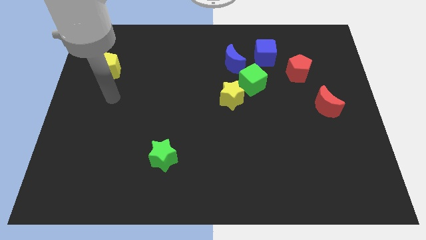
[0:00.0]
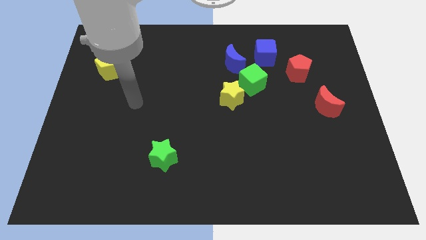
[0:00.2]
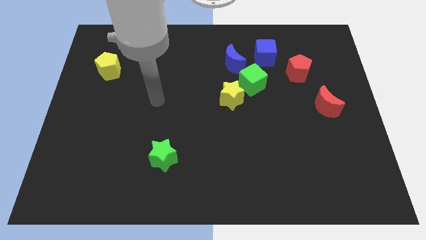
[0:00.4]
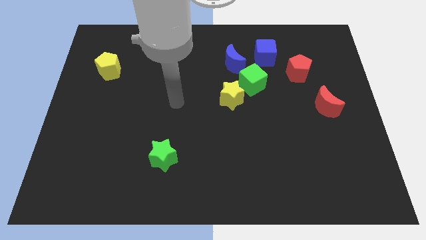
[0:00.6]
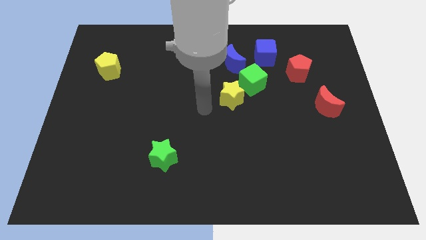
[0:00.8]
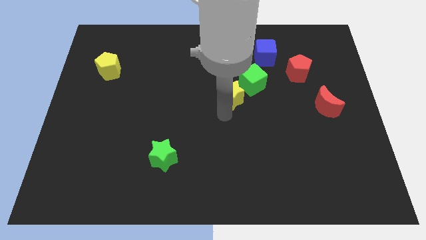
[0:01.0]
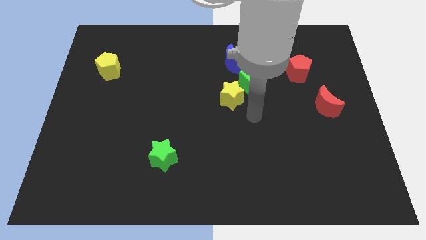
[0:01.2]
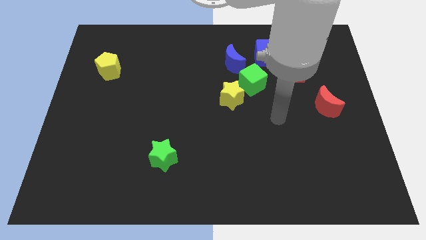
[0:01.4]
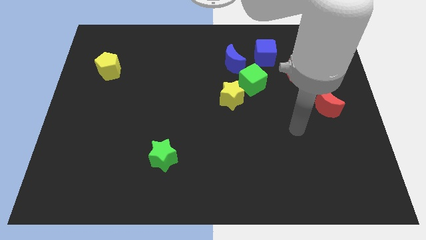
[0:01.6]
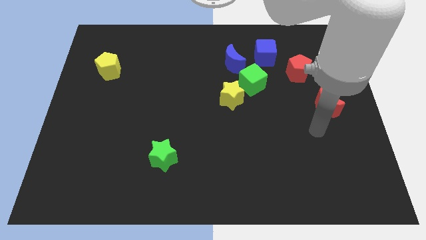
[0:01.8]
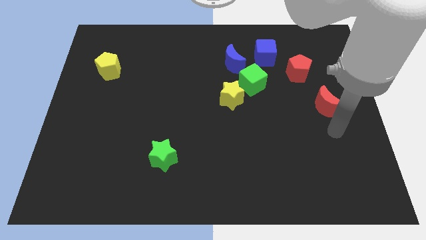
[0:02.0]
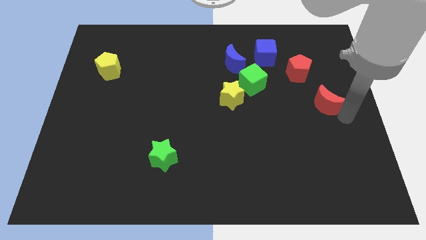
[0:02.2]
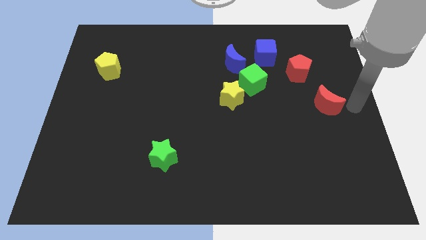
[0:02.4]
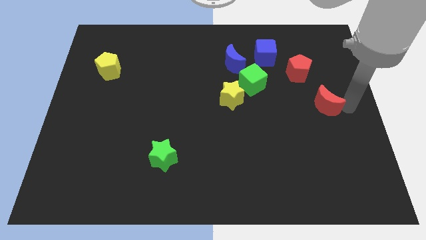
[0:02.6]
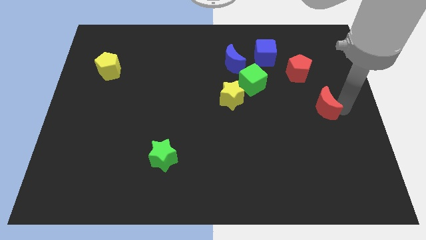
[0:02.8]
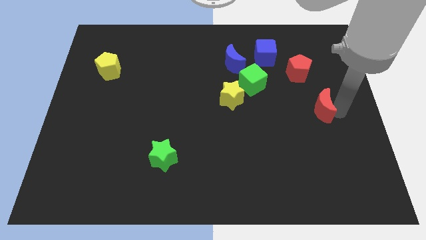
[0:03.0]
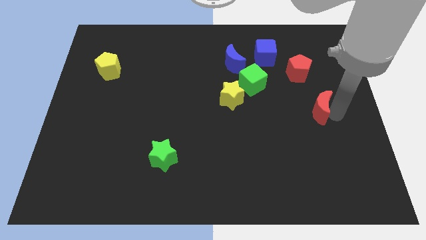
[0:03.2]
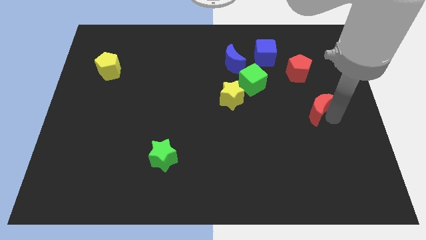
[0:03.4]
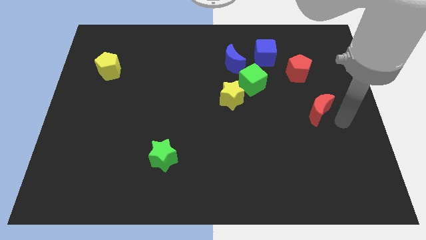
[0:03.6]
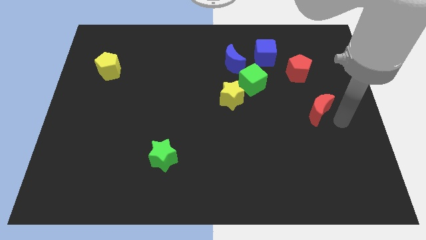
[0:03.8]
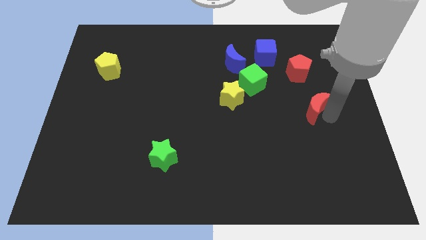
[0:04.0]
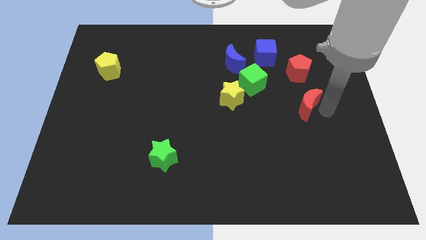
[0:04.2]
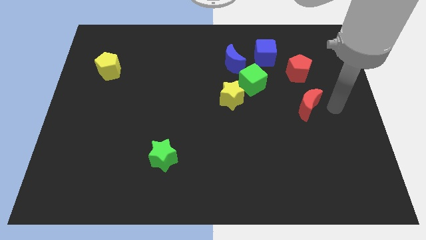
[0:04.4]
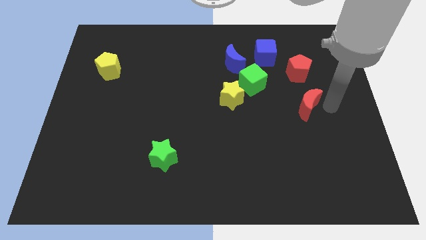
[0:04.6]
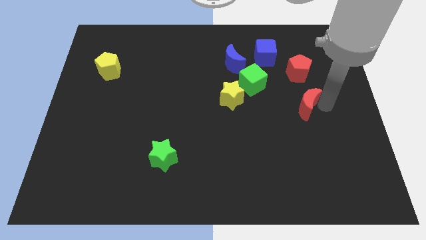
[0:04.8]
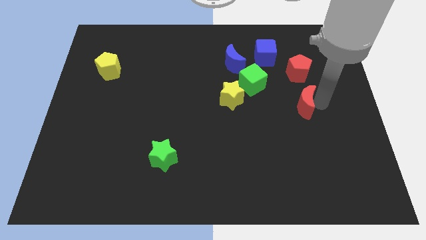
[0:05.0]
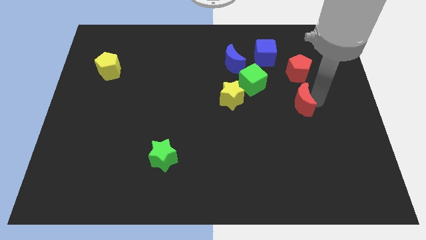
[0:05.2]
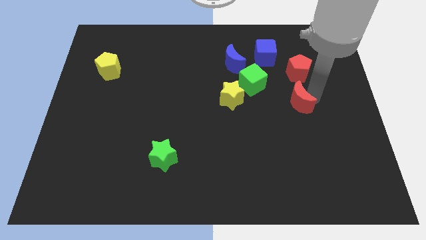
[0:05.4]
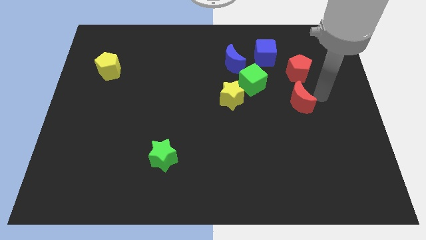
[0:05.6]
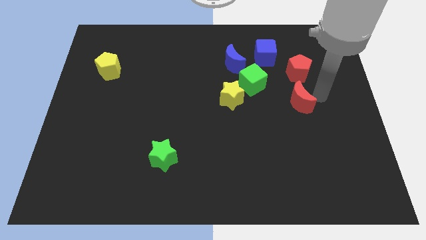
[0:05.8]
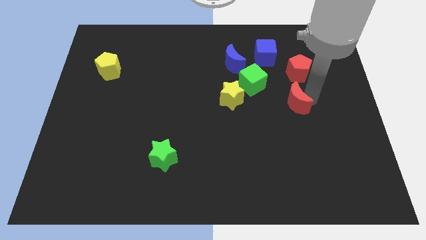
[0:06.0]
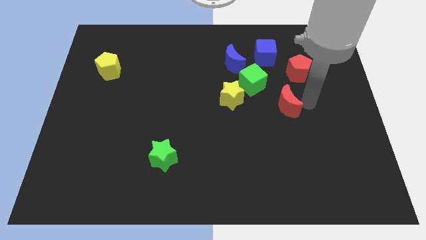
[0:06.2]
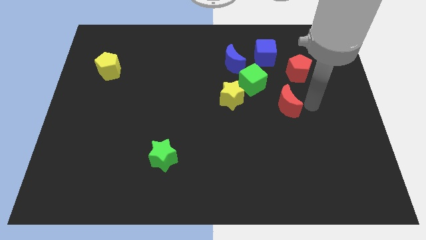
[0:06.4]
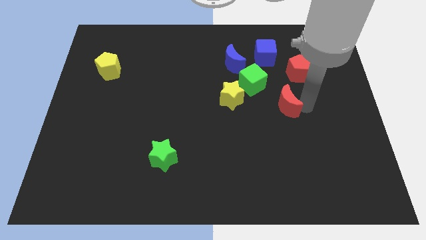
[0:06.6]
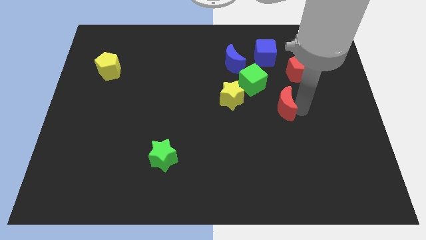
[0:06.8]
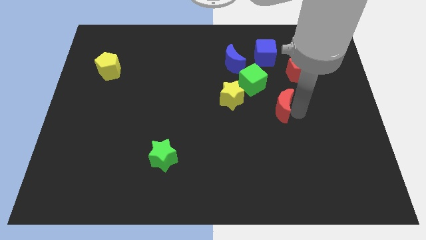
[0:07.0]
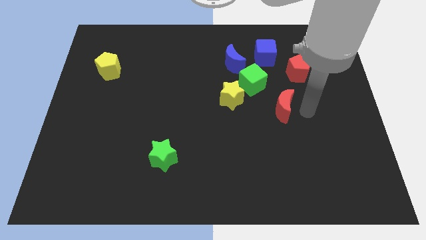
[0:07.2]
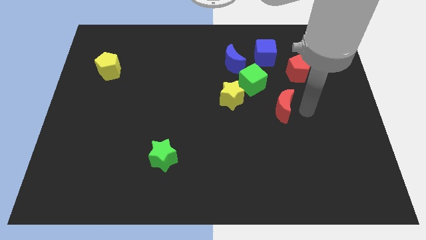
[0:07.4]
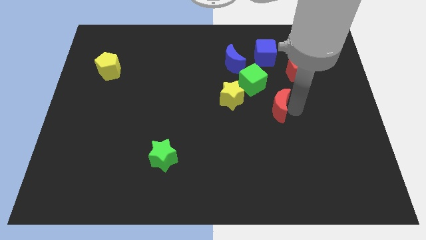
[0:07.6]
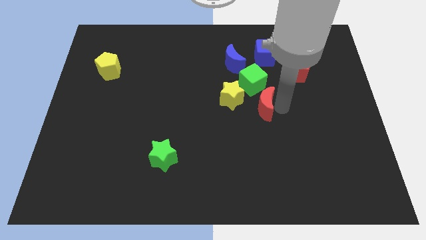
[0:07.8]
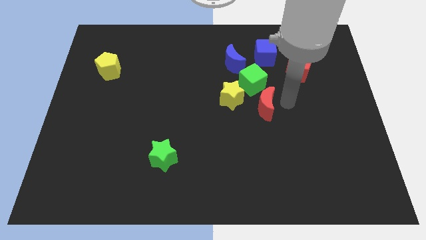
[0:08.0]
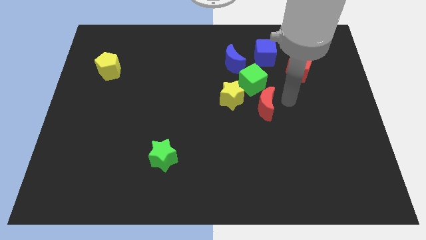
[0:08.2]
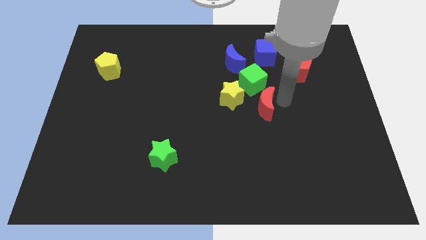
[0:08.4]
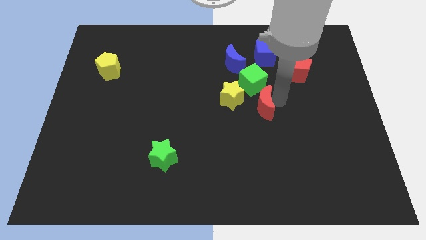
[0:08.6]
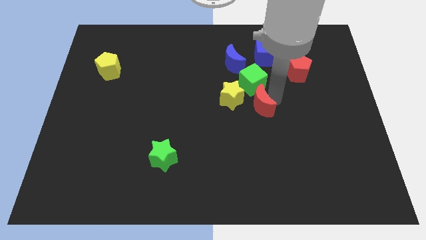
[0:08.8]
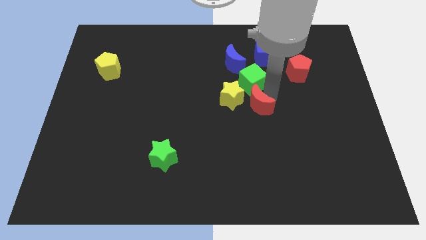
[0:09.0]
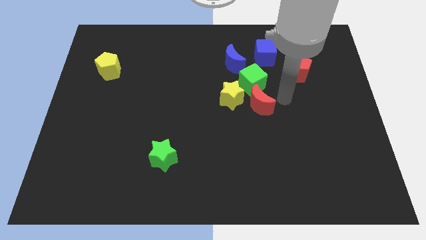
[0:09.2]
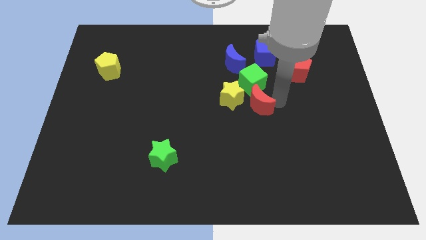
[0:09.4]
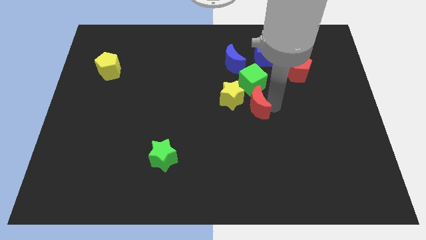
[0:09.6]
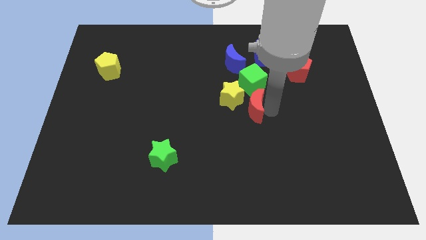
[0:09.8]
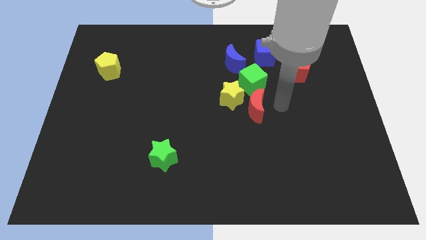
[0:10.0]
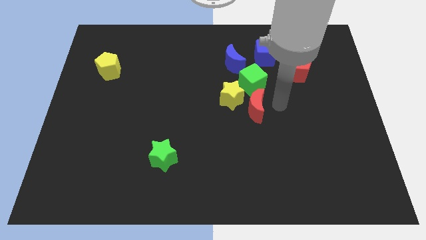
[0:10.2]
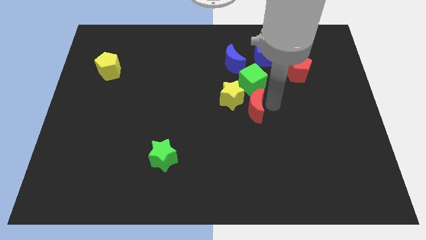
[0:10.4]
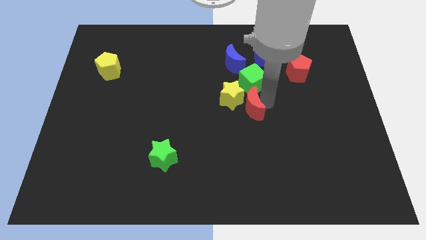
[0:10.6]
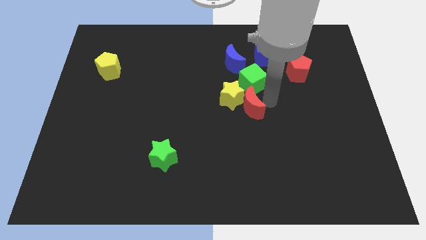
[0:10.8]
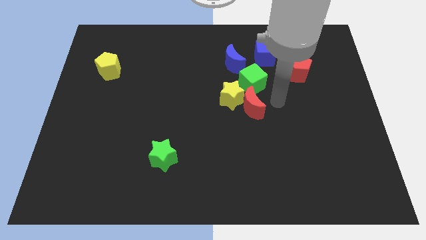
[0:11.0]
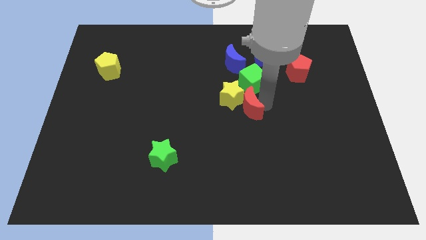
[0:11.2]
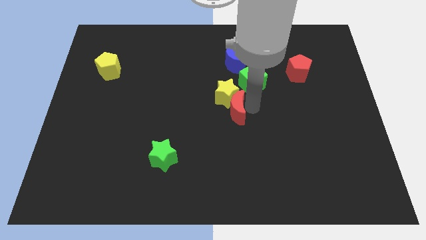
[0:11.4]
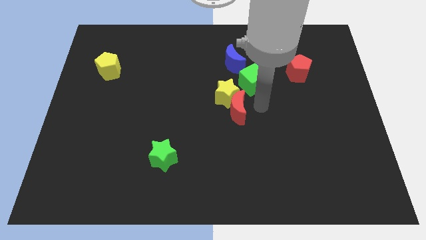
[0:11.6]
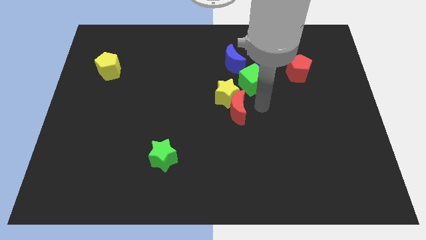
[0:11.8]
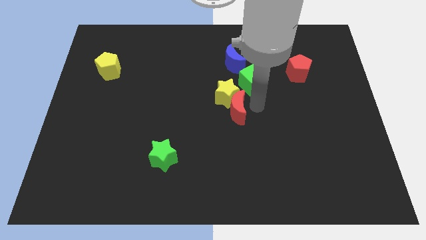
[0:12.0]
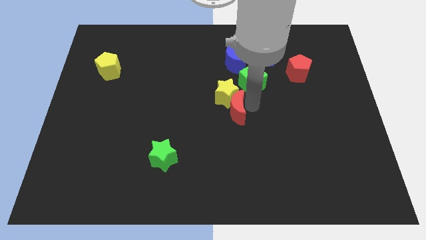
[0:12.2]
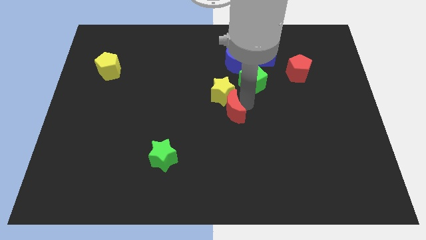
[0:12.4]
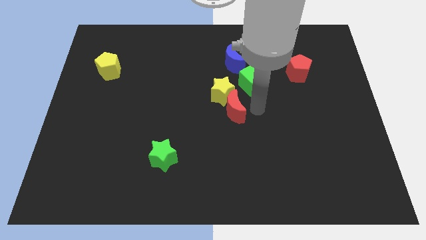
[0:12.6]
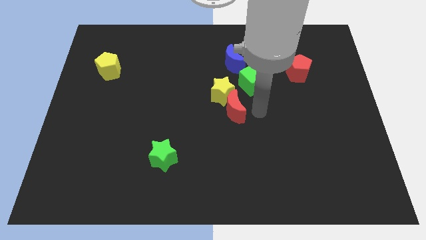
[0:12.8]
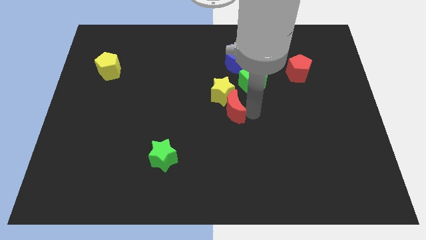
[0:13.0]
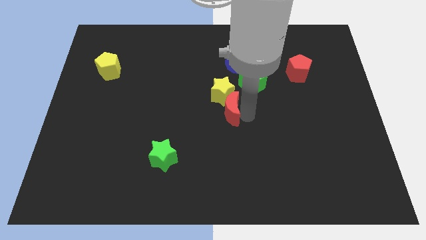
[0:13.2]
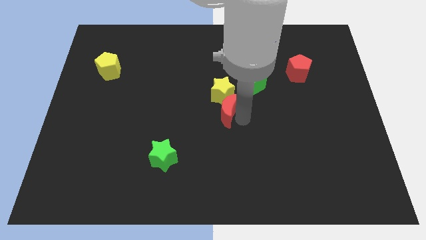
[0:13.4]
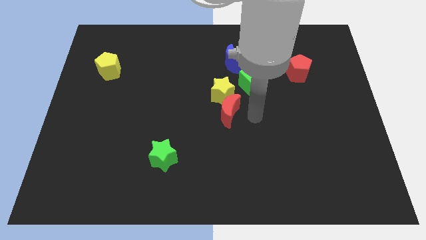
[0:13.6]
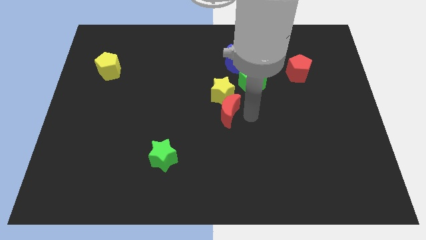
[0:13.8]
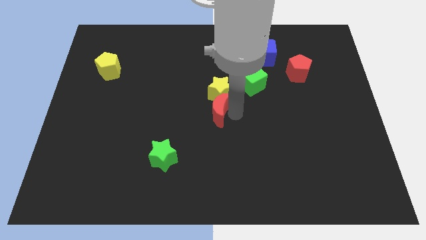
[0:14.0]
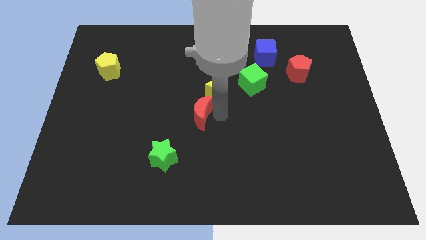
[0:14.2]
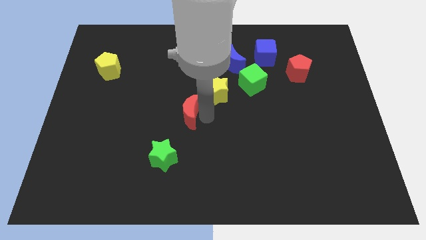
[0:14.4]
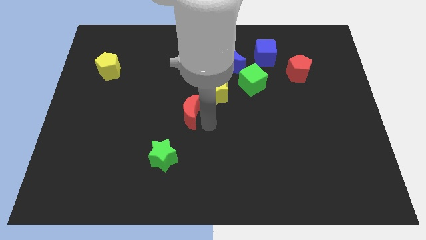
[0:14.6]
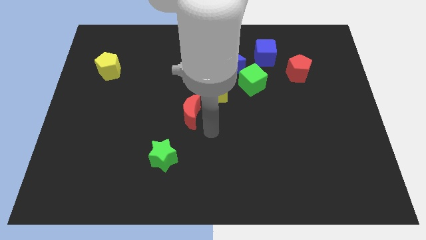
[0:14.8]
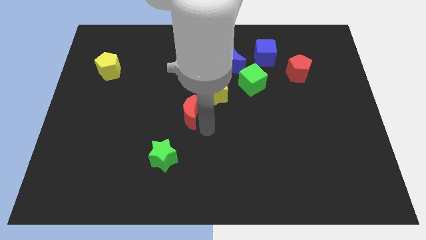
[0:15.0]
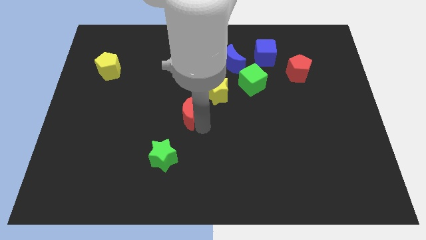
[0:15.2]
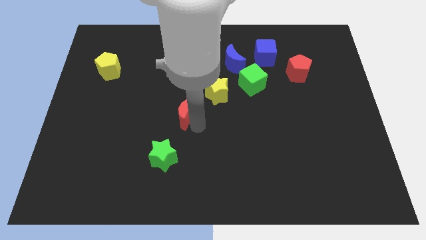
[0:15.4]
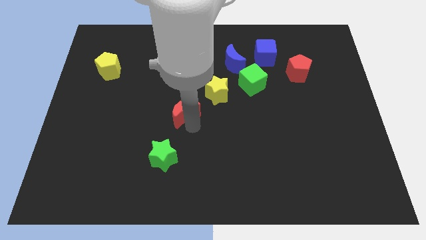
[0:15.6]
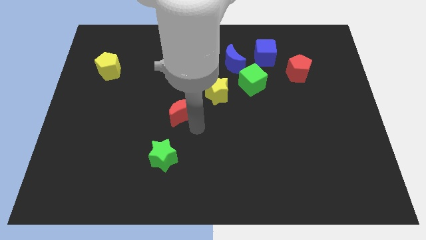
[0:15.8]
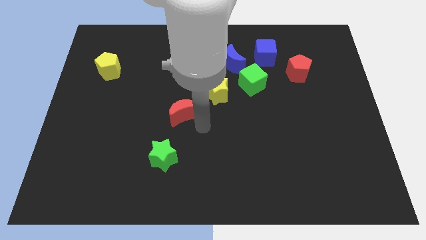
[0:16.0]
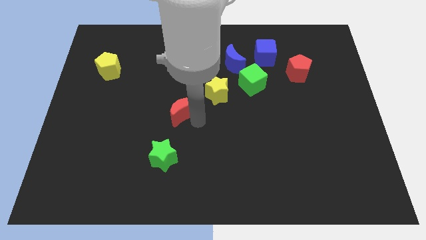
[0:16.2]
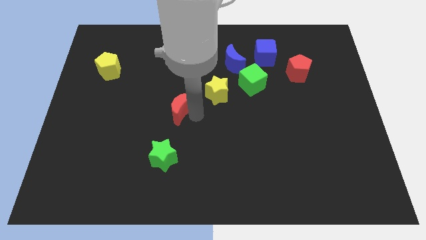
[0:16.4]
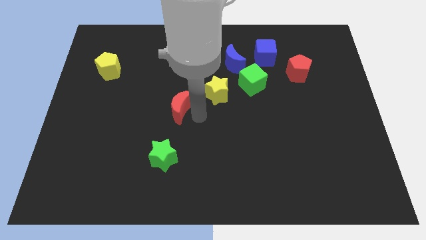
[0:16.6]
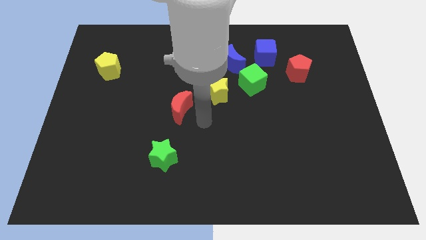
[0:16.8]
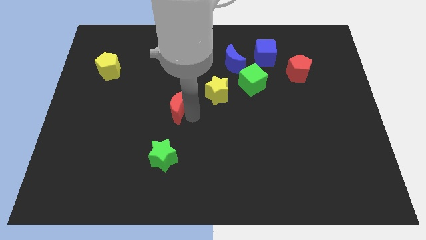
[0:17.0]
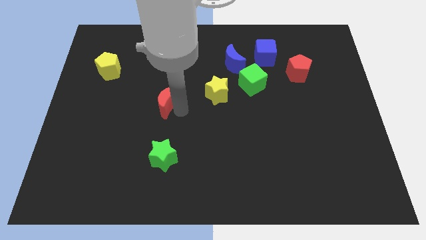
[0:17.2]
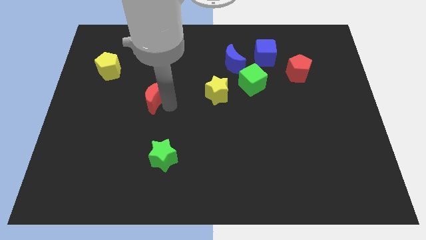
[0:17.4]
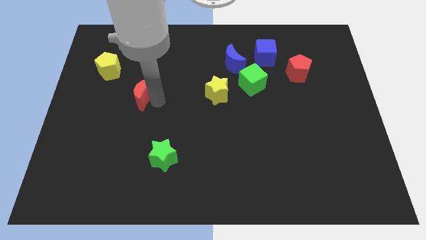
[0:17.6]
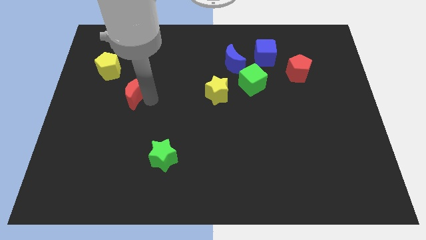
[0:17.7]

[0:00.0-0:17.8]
move the red moon diagonally down and to the right of the yellow pentagon
